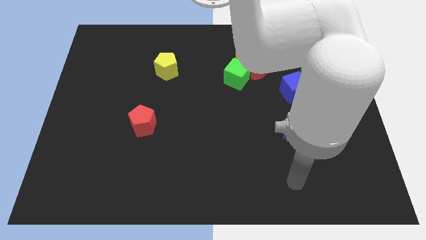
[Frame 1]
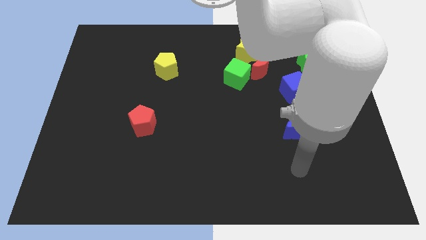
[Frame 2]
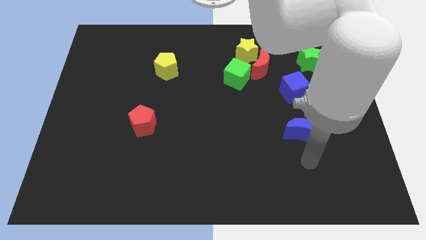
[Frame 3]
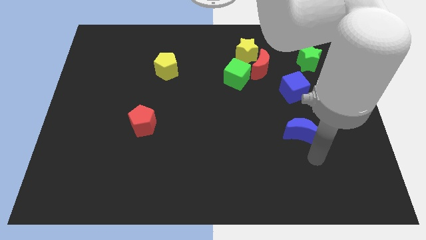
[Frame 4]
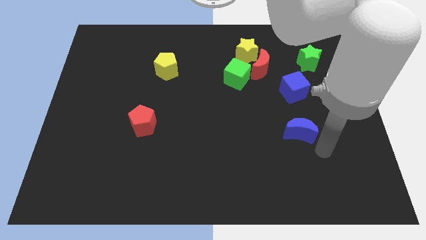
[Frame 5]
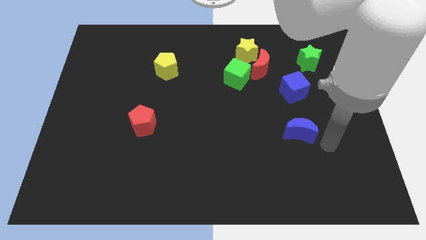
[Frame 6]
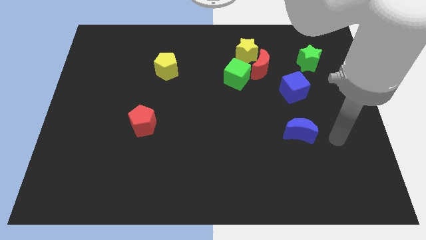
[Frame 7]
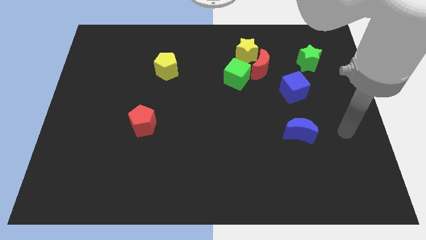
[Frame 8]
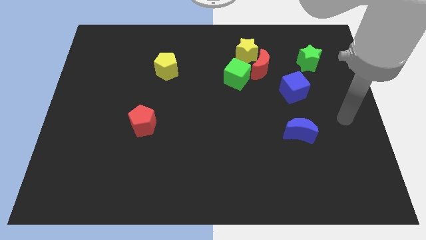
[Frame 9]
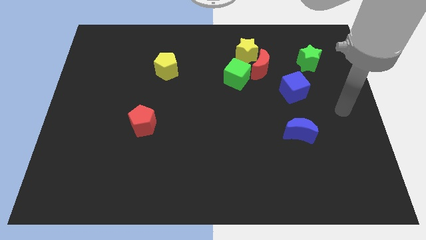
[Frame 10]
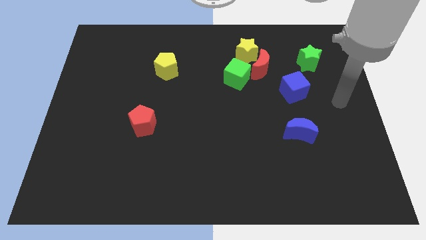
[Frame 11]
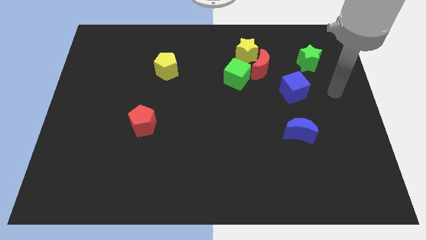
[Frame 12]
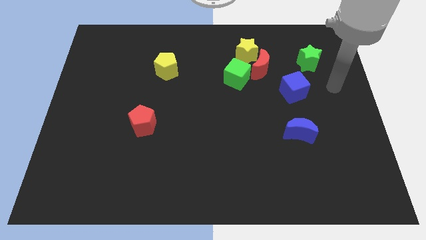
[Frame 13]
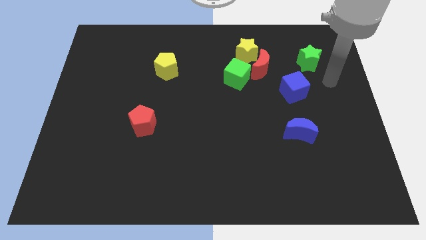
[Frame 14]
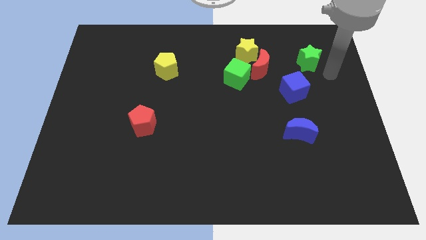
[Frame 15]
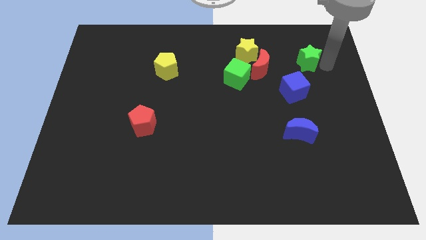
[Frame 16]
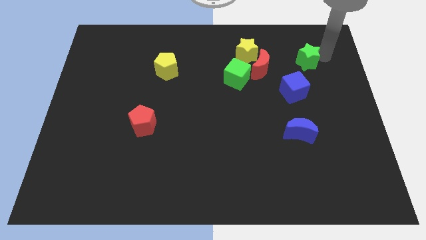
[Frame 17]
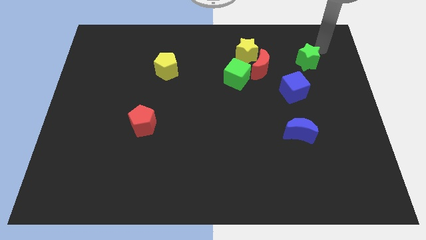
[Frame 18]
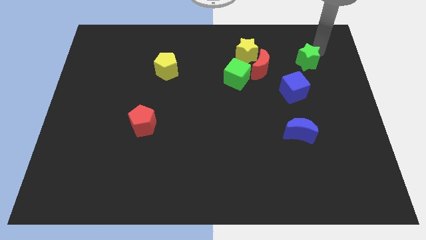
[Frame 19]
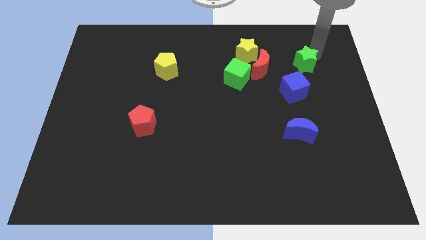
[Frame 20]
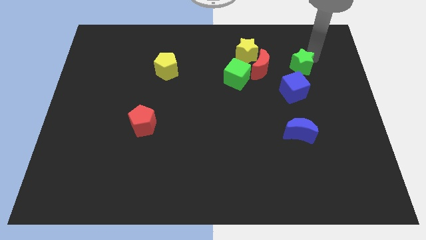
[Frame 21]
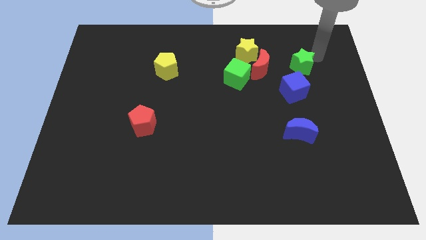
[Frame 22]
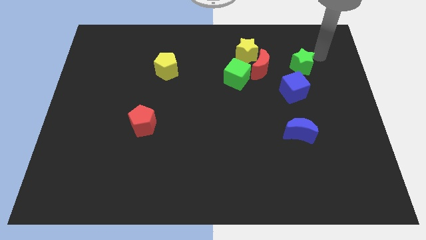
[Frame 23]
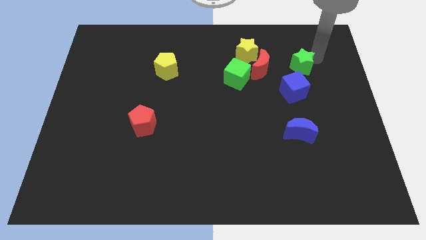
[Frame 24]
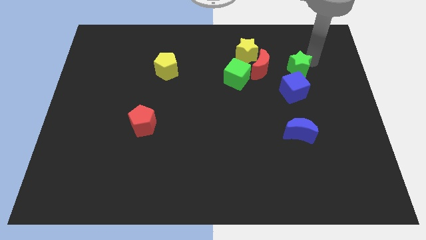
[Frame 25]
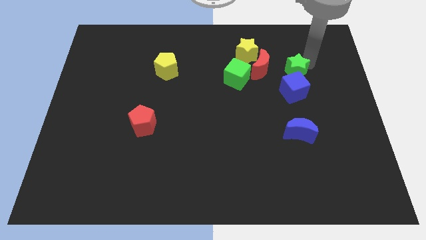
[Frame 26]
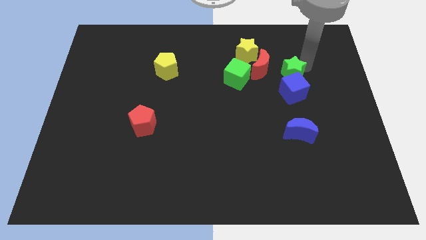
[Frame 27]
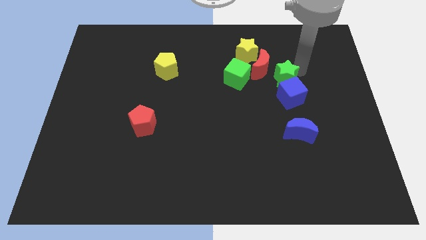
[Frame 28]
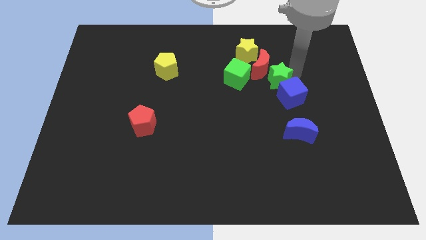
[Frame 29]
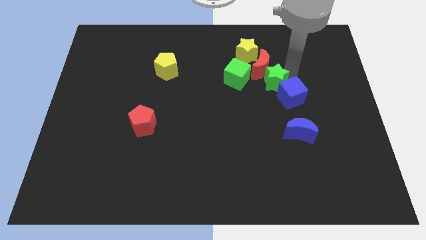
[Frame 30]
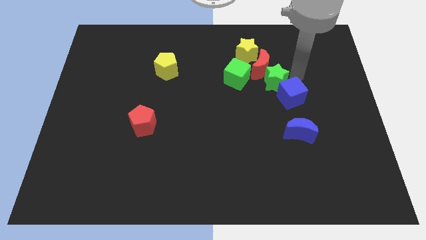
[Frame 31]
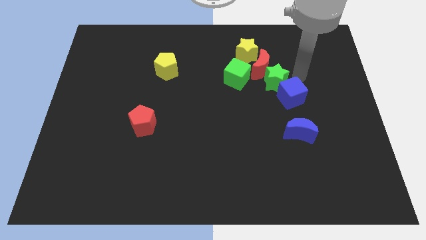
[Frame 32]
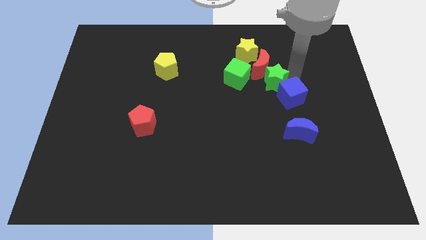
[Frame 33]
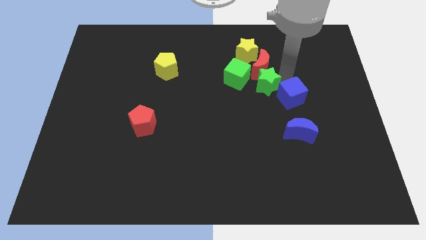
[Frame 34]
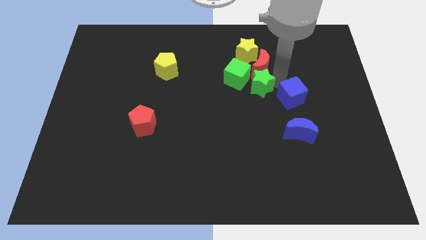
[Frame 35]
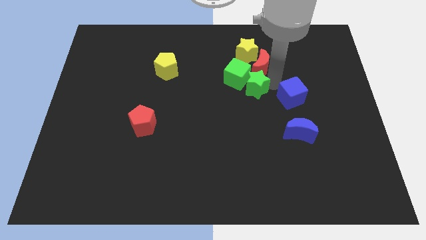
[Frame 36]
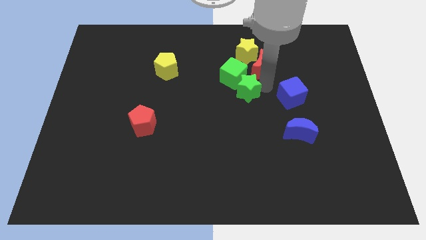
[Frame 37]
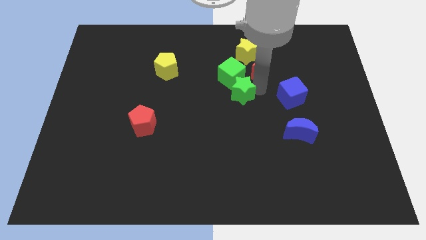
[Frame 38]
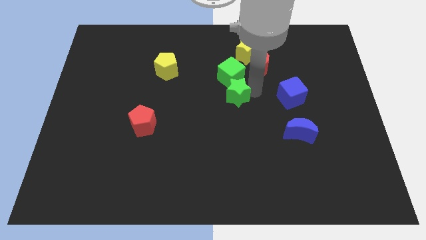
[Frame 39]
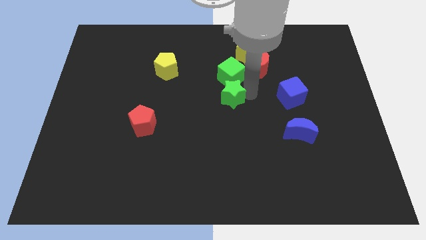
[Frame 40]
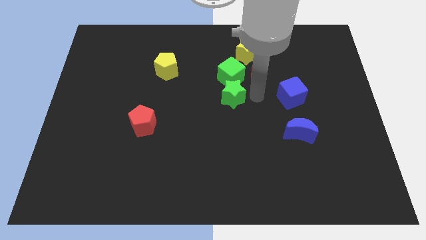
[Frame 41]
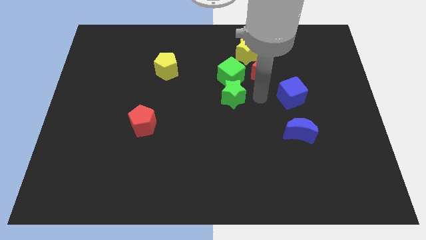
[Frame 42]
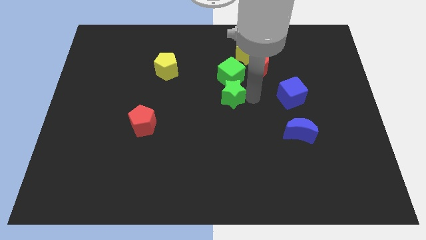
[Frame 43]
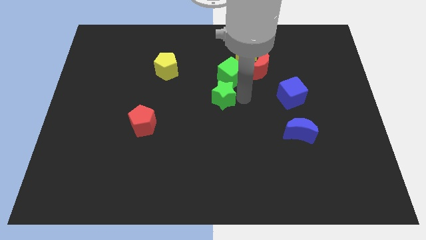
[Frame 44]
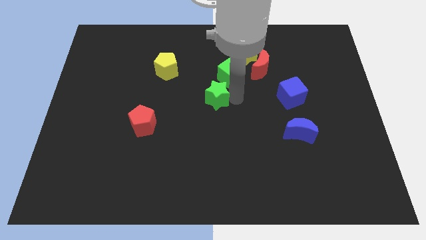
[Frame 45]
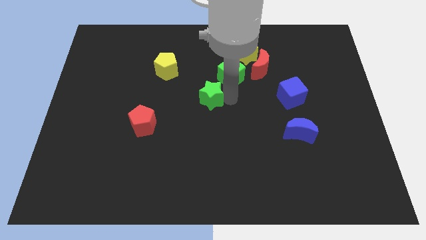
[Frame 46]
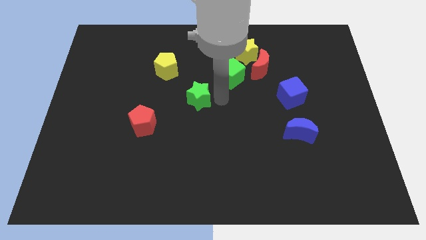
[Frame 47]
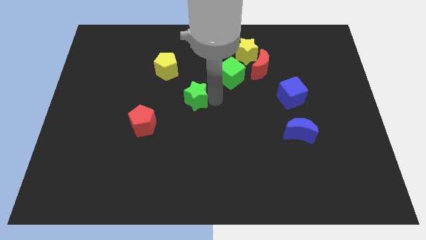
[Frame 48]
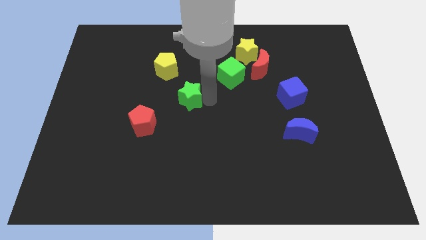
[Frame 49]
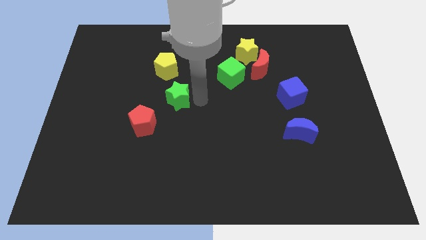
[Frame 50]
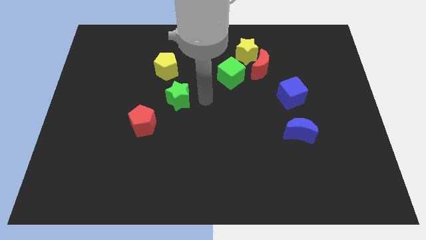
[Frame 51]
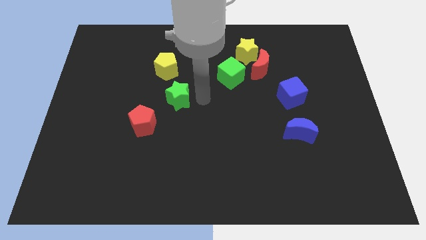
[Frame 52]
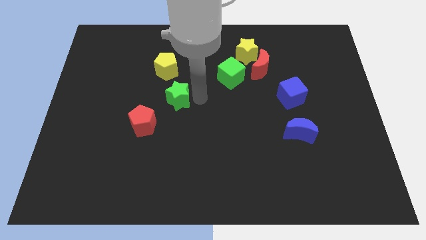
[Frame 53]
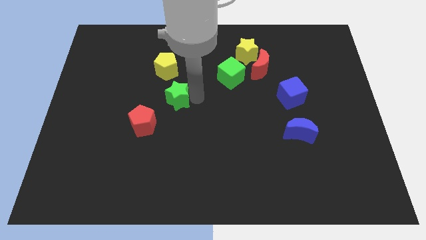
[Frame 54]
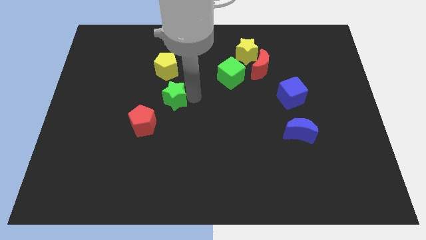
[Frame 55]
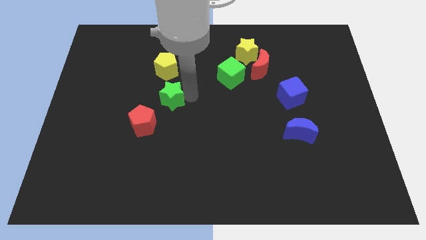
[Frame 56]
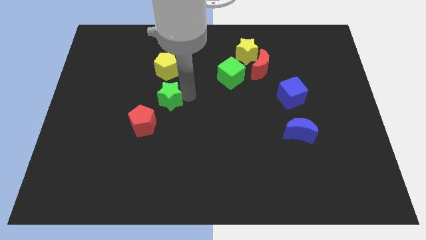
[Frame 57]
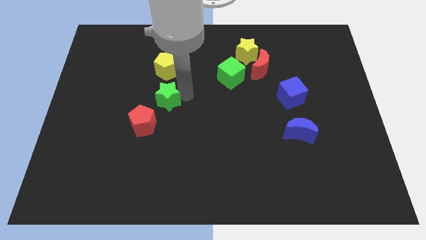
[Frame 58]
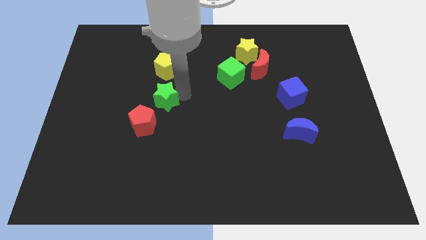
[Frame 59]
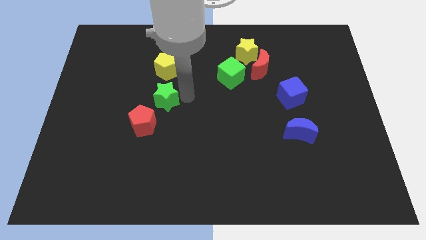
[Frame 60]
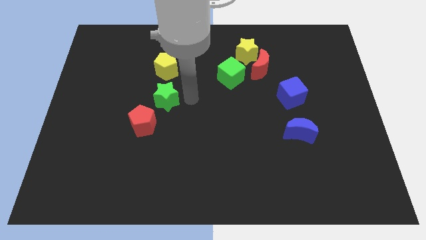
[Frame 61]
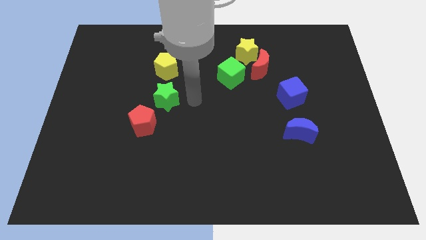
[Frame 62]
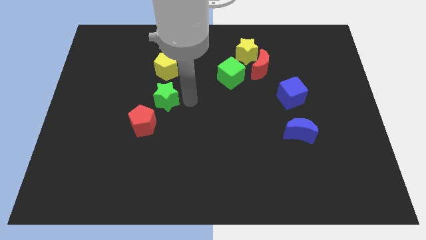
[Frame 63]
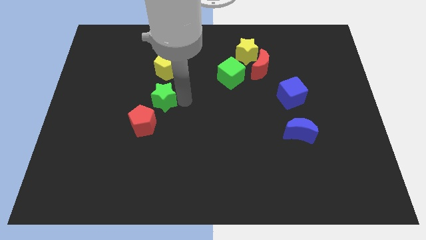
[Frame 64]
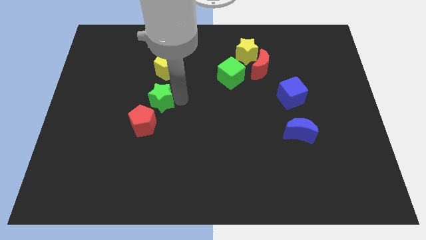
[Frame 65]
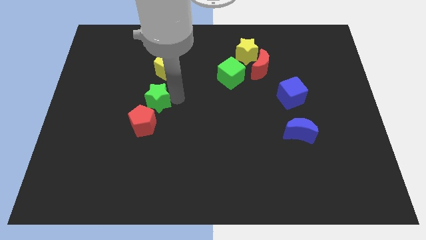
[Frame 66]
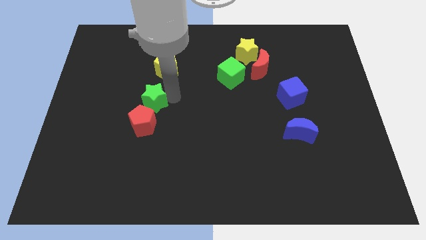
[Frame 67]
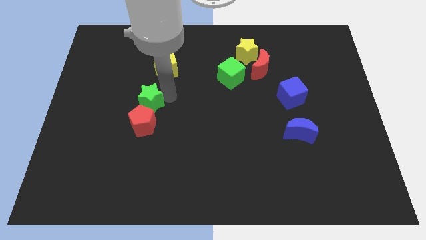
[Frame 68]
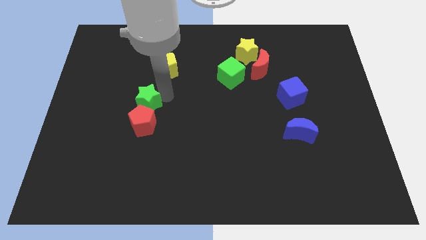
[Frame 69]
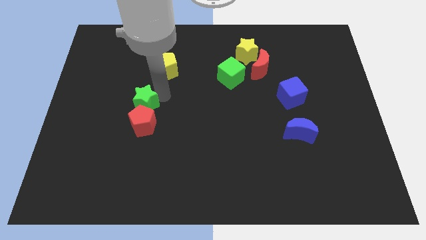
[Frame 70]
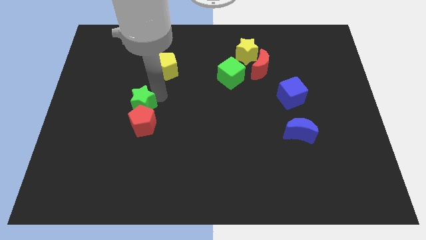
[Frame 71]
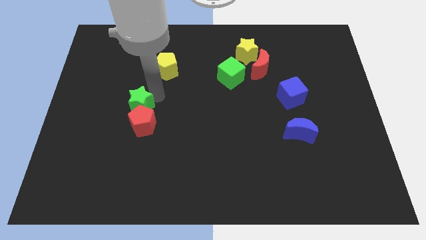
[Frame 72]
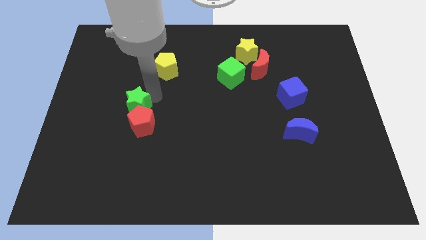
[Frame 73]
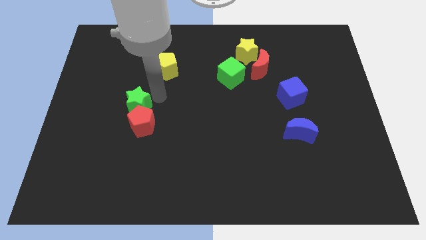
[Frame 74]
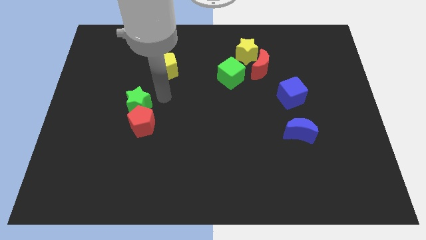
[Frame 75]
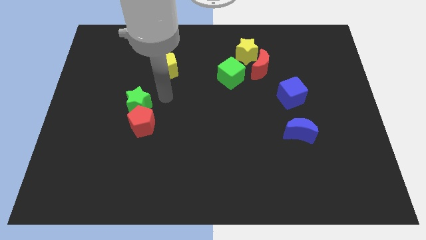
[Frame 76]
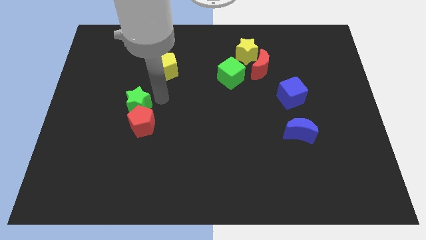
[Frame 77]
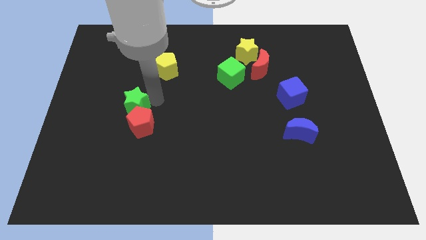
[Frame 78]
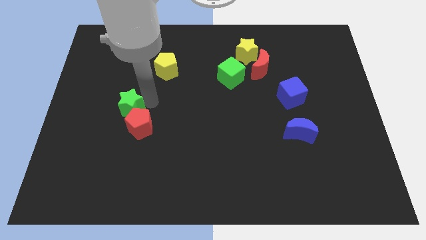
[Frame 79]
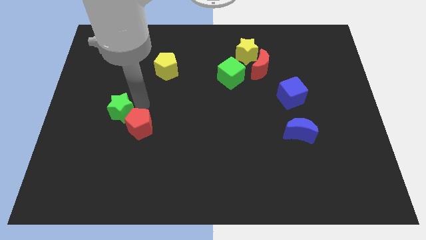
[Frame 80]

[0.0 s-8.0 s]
put the green star to the left of the red pentagon
